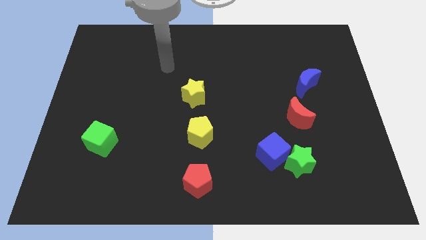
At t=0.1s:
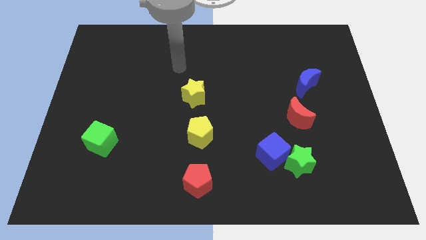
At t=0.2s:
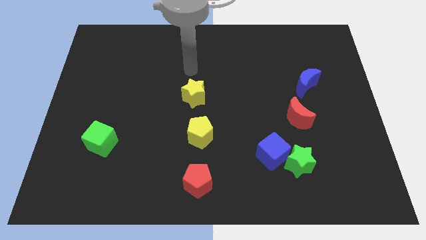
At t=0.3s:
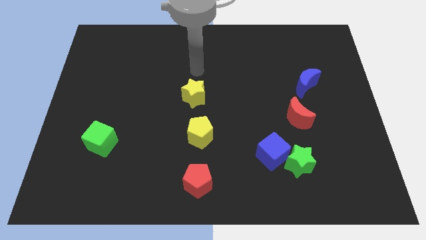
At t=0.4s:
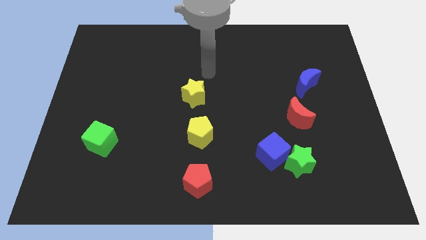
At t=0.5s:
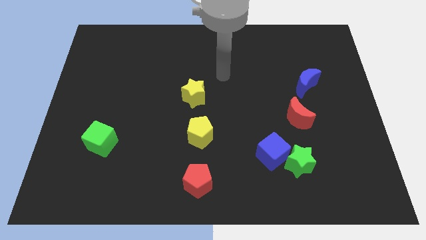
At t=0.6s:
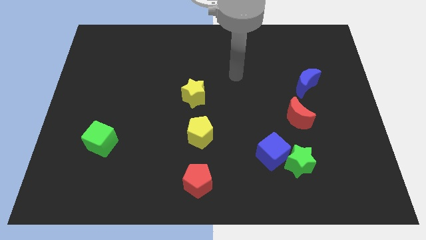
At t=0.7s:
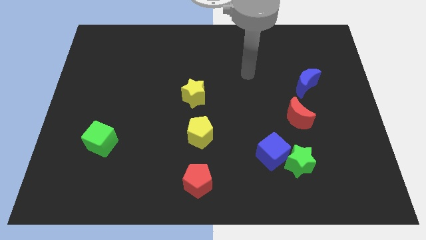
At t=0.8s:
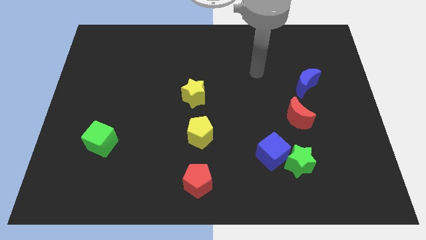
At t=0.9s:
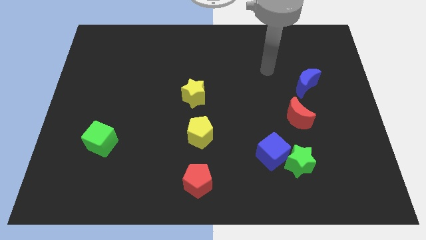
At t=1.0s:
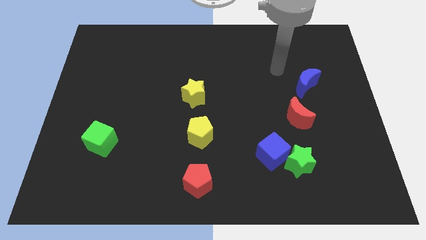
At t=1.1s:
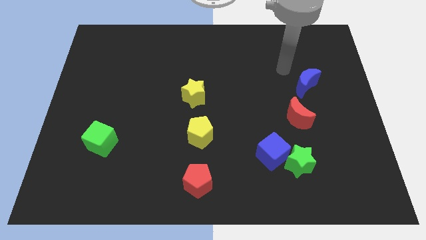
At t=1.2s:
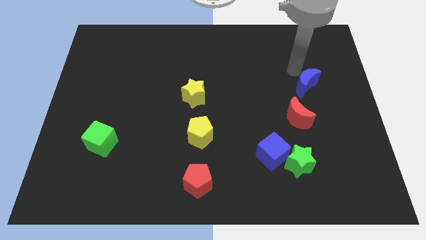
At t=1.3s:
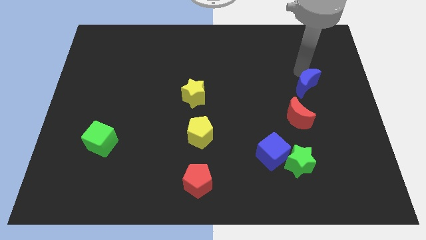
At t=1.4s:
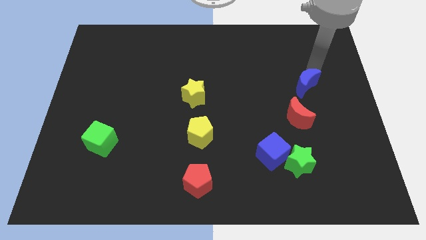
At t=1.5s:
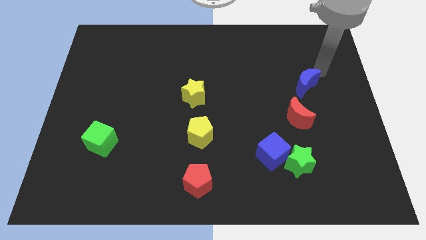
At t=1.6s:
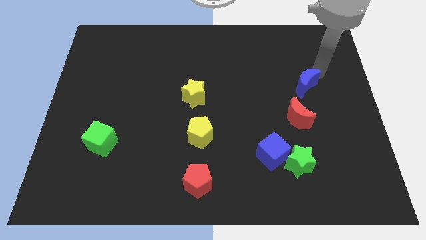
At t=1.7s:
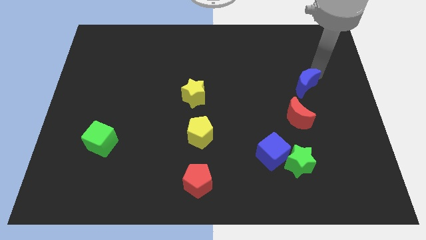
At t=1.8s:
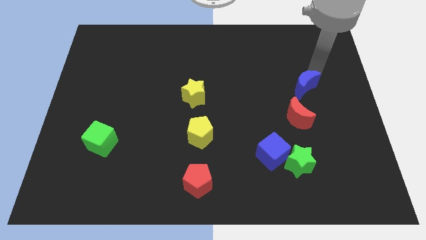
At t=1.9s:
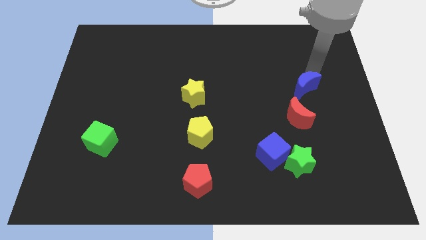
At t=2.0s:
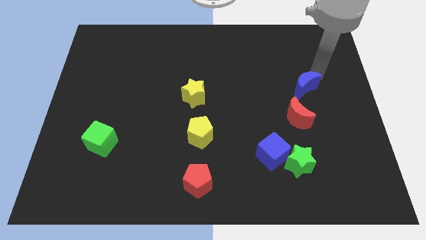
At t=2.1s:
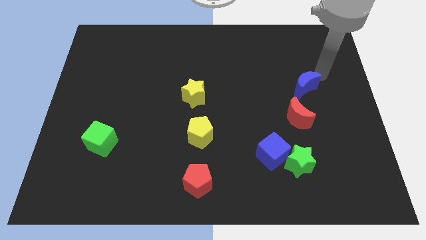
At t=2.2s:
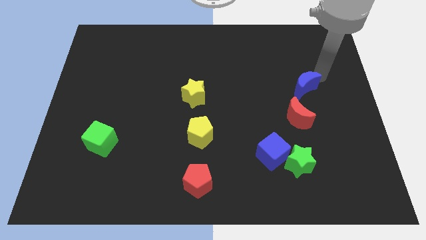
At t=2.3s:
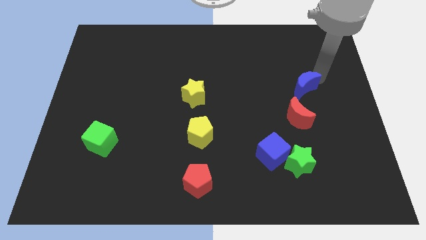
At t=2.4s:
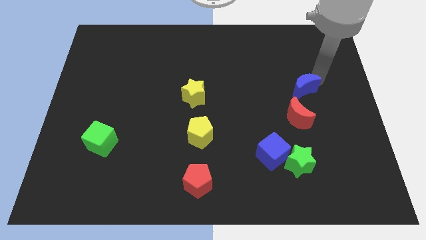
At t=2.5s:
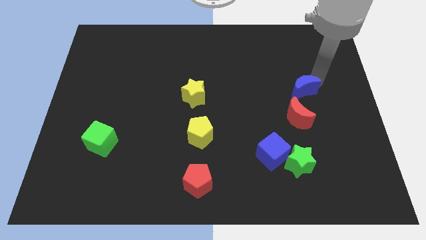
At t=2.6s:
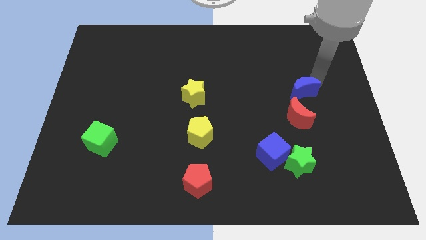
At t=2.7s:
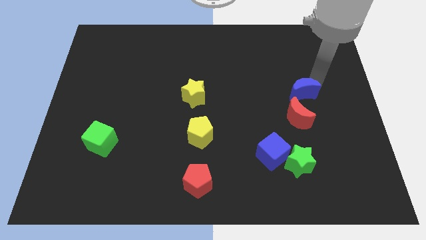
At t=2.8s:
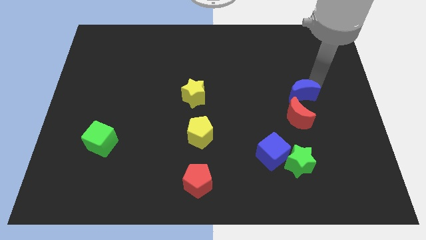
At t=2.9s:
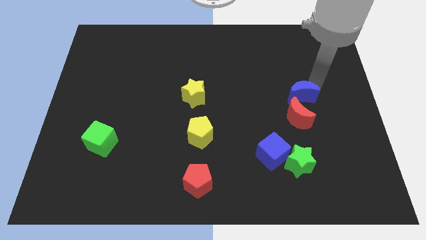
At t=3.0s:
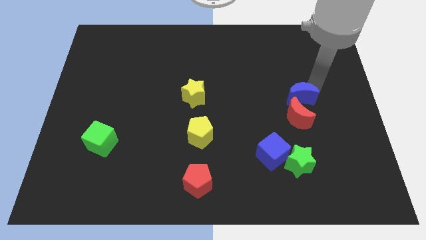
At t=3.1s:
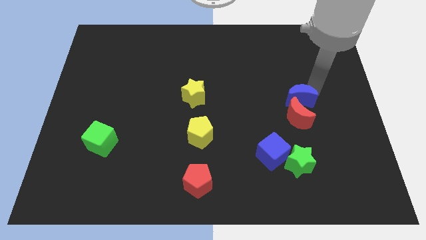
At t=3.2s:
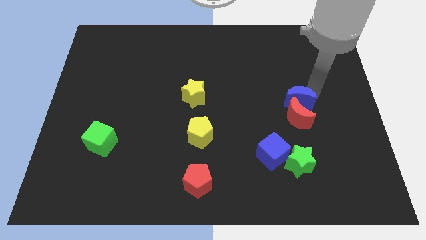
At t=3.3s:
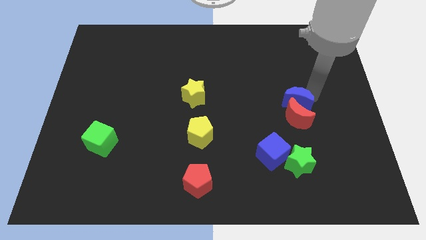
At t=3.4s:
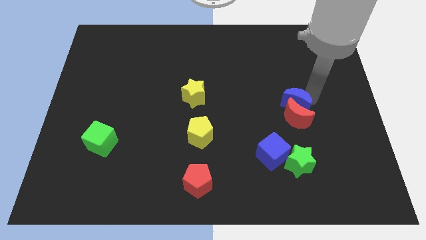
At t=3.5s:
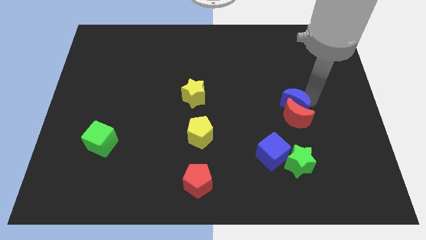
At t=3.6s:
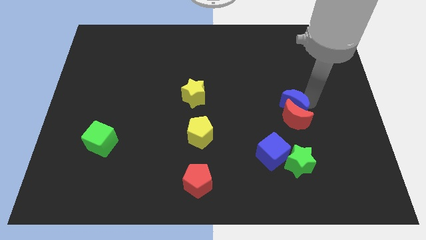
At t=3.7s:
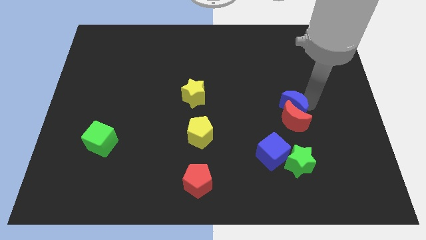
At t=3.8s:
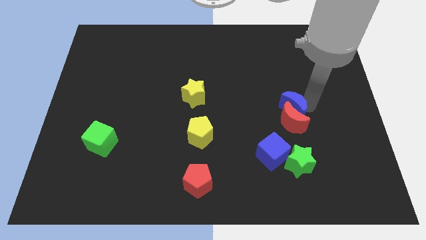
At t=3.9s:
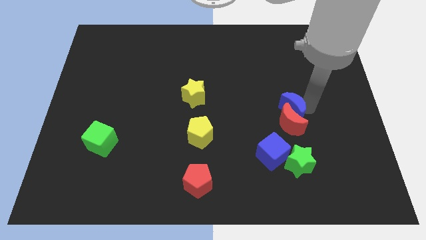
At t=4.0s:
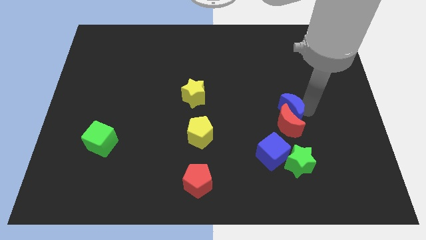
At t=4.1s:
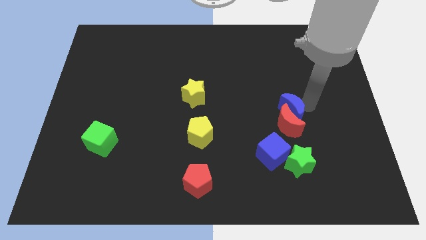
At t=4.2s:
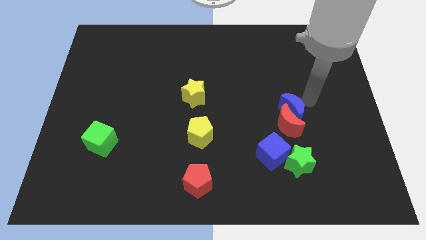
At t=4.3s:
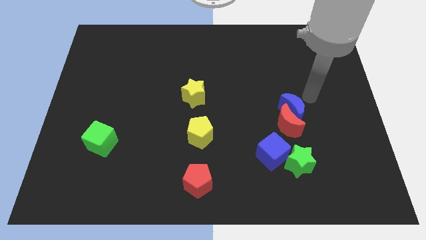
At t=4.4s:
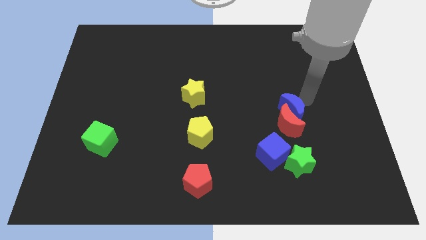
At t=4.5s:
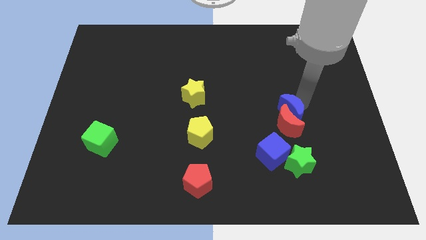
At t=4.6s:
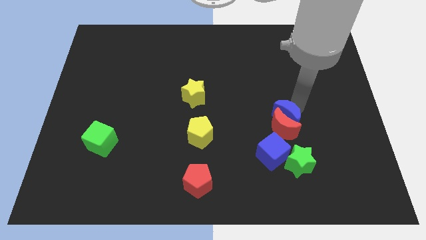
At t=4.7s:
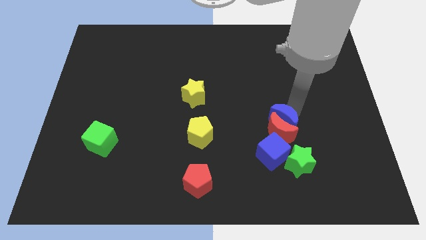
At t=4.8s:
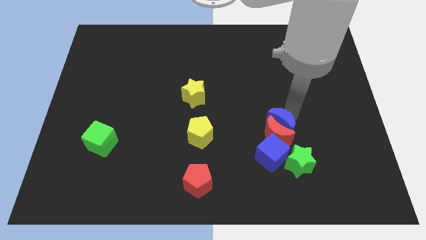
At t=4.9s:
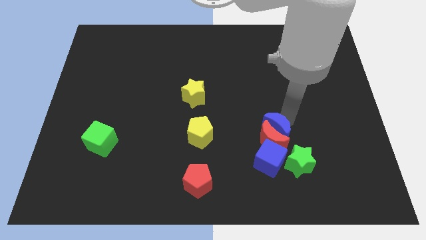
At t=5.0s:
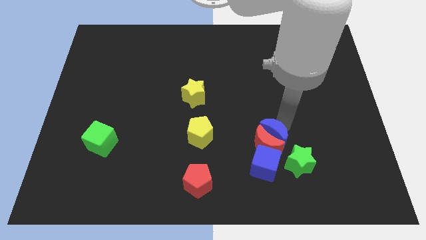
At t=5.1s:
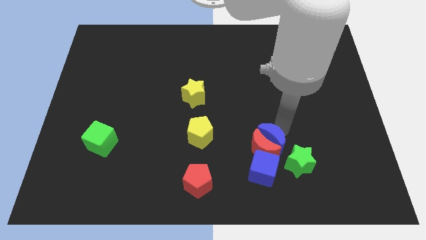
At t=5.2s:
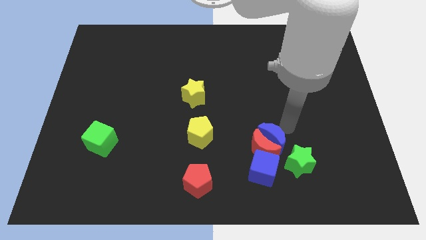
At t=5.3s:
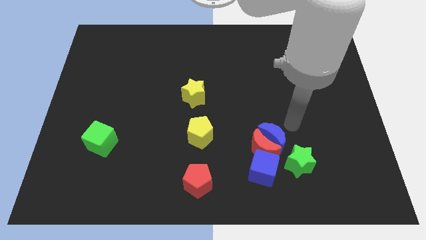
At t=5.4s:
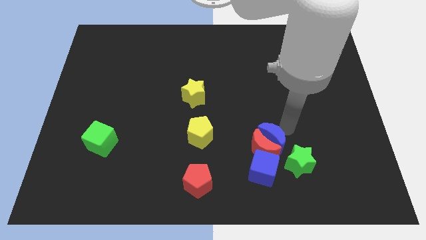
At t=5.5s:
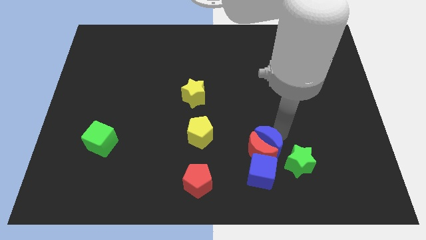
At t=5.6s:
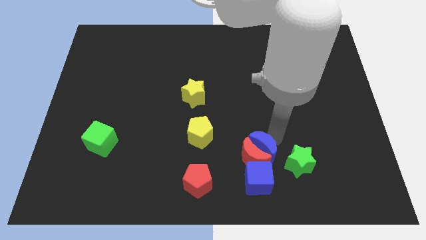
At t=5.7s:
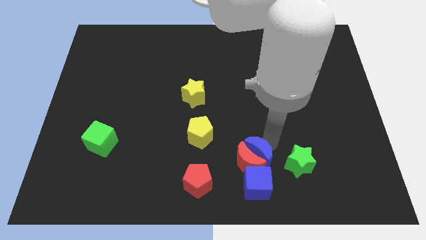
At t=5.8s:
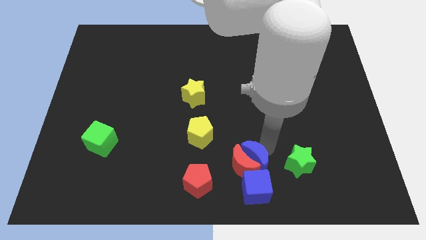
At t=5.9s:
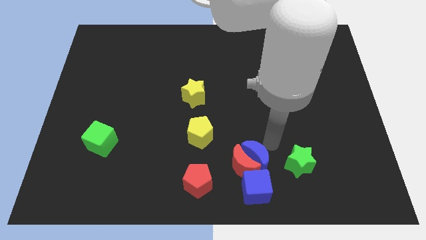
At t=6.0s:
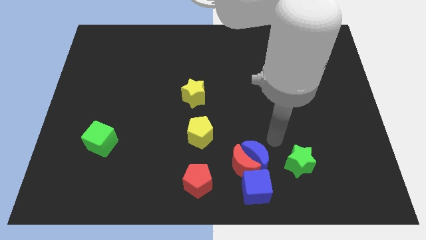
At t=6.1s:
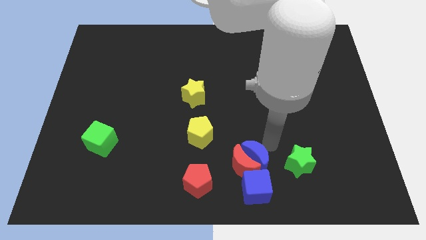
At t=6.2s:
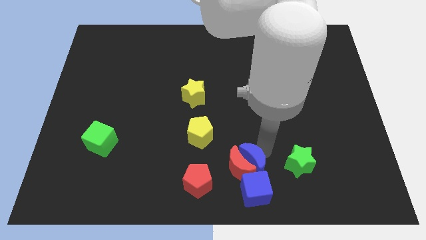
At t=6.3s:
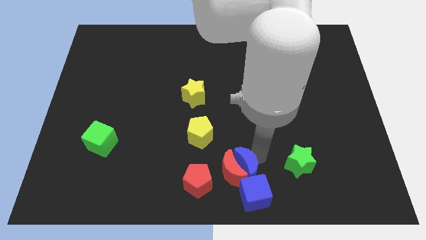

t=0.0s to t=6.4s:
move the blue moon to the bottom side

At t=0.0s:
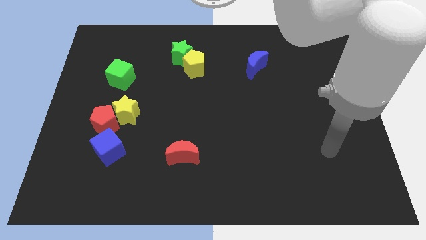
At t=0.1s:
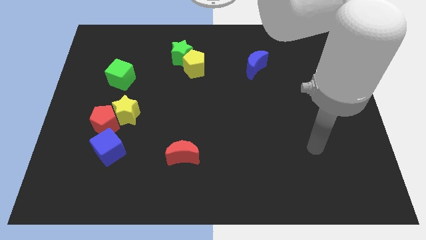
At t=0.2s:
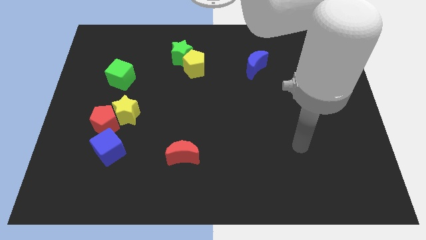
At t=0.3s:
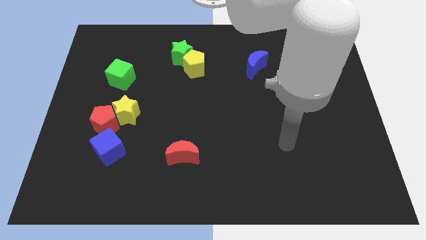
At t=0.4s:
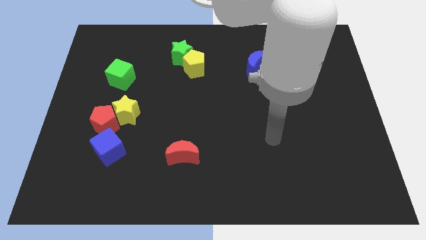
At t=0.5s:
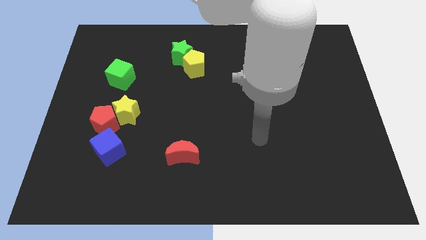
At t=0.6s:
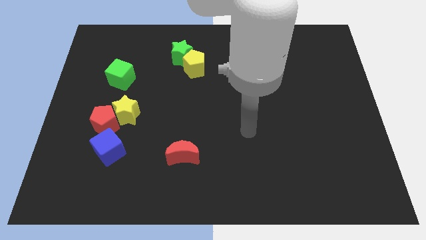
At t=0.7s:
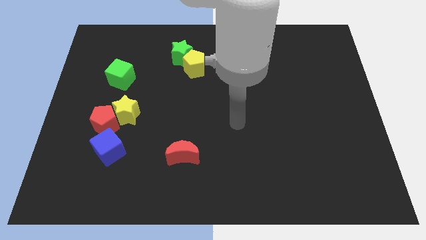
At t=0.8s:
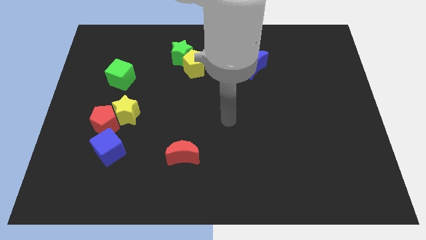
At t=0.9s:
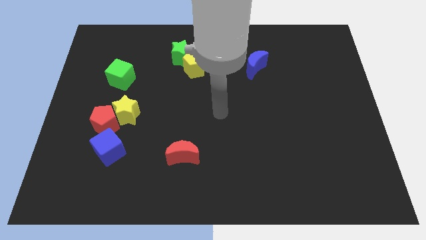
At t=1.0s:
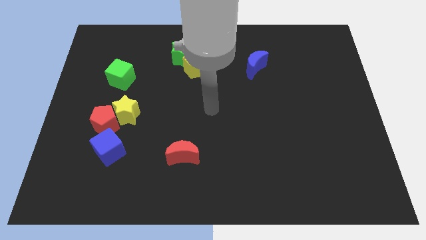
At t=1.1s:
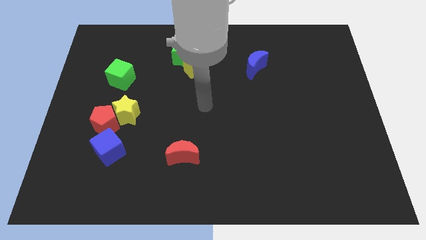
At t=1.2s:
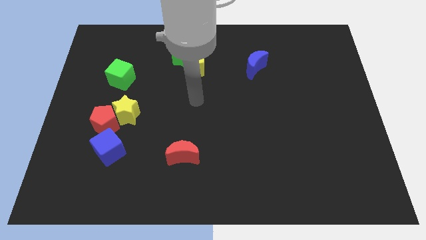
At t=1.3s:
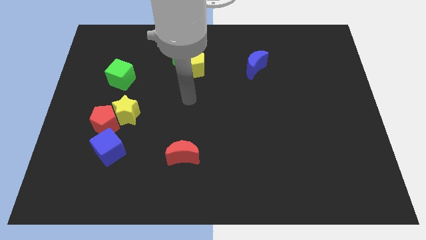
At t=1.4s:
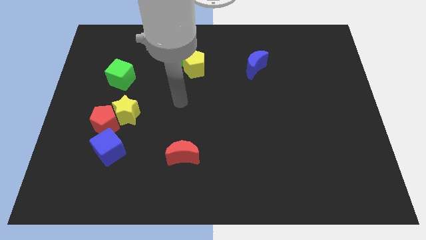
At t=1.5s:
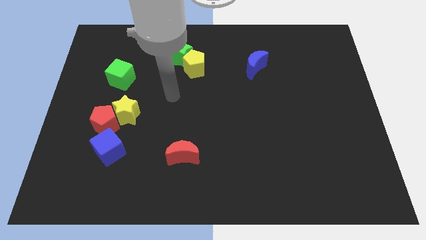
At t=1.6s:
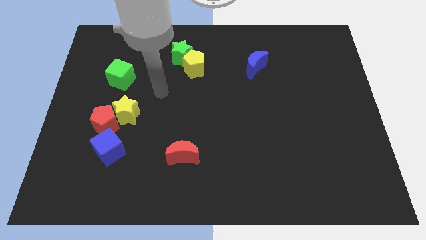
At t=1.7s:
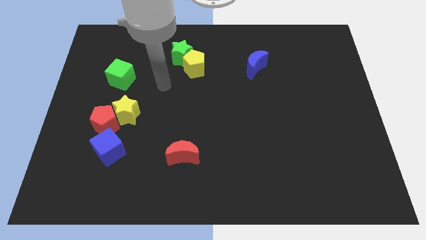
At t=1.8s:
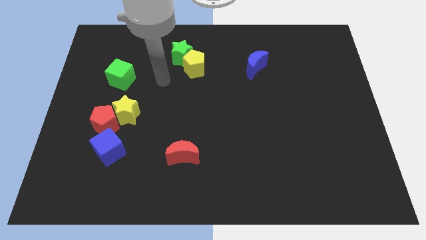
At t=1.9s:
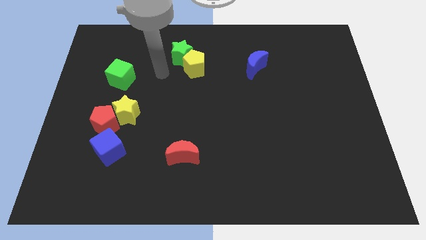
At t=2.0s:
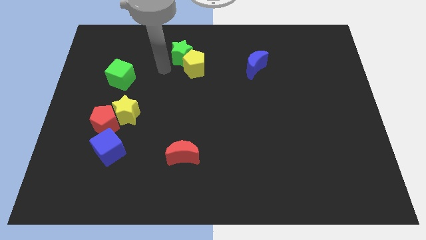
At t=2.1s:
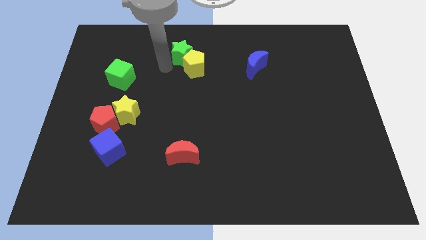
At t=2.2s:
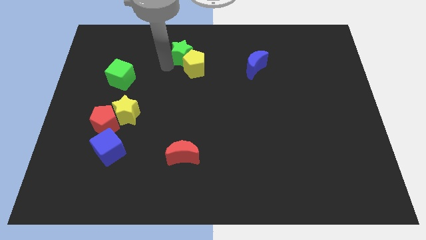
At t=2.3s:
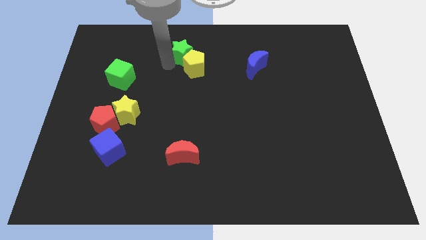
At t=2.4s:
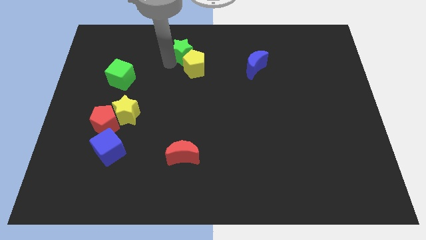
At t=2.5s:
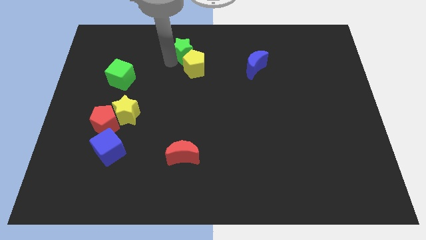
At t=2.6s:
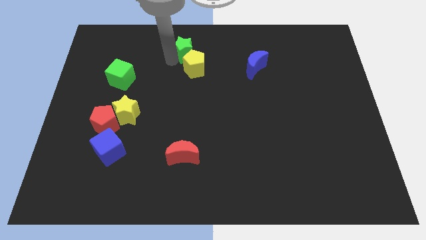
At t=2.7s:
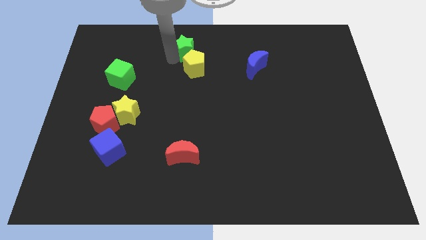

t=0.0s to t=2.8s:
put the green star to the top
